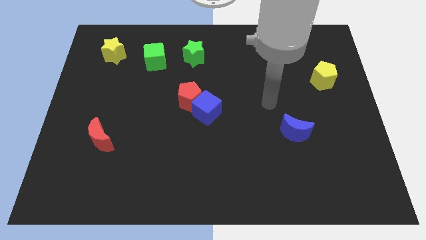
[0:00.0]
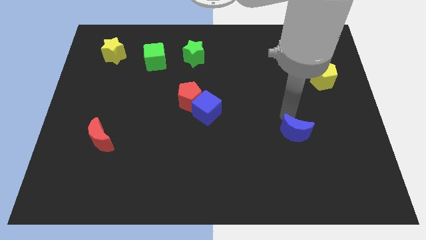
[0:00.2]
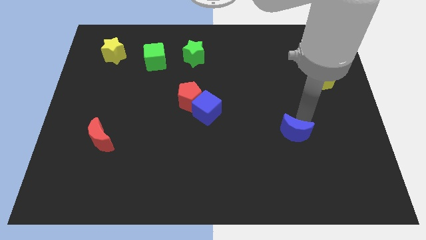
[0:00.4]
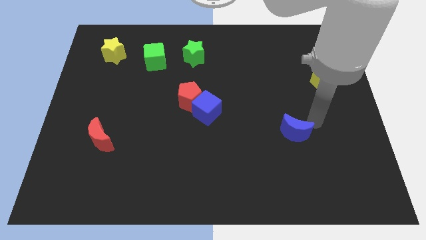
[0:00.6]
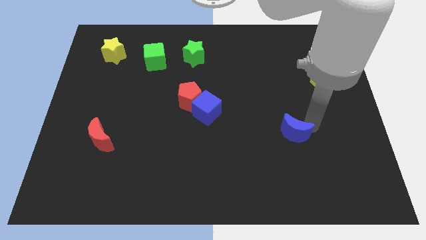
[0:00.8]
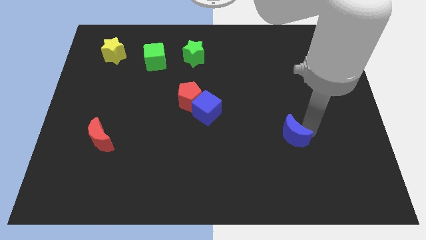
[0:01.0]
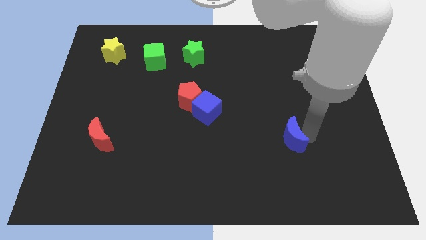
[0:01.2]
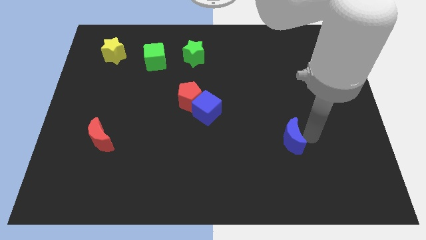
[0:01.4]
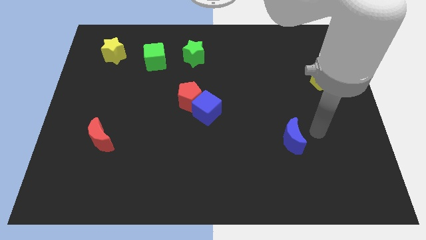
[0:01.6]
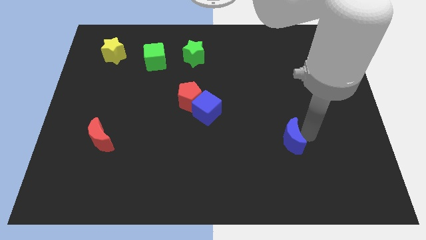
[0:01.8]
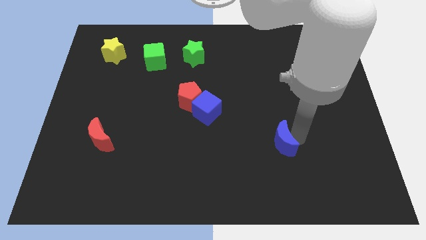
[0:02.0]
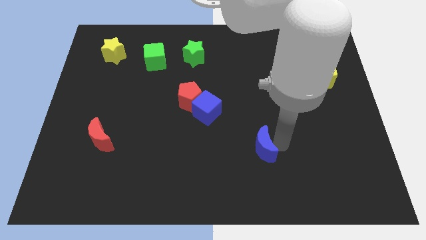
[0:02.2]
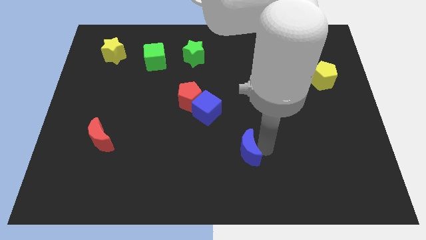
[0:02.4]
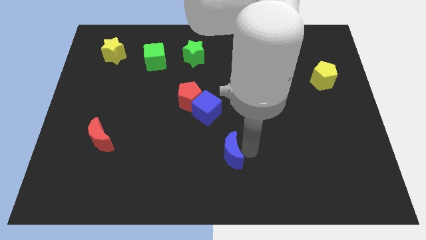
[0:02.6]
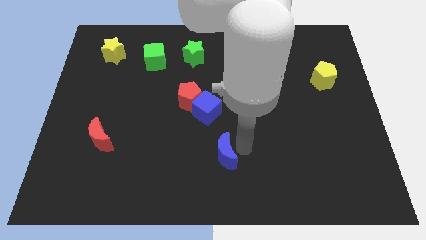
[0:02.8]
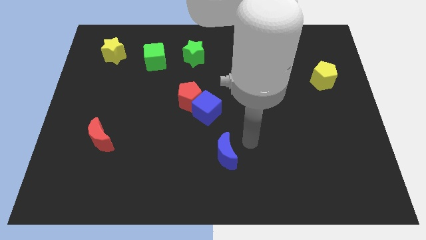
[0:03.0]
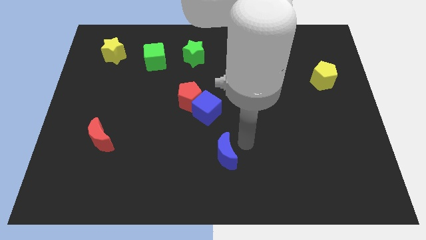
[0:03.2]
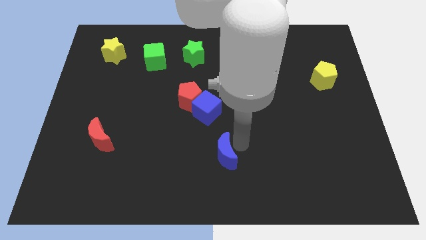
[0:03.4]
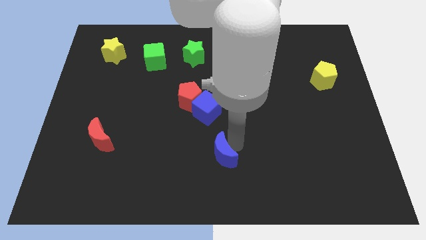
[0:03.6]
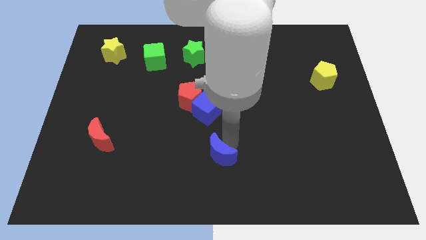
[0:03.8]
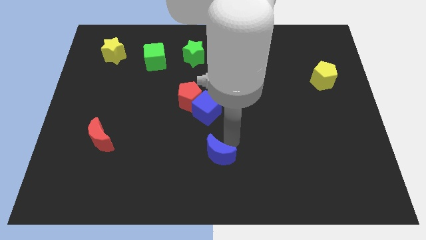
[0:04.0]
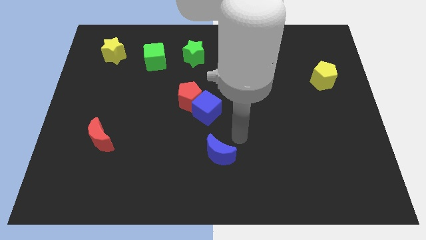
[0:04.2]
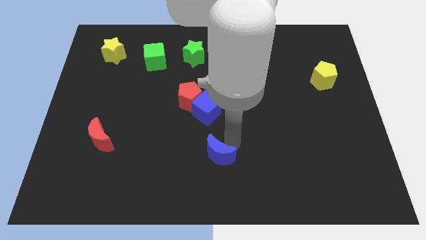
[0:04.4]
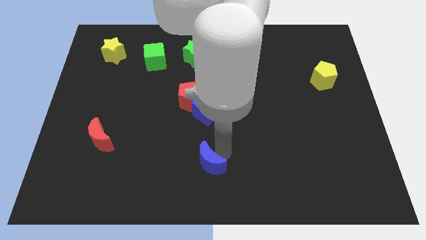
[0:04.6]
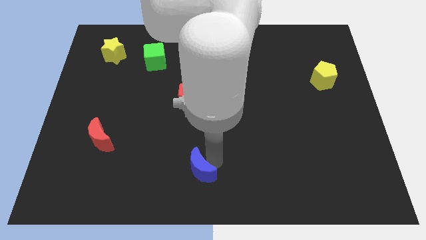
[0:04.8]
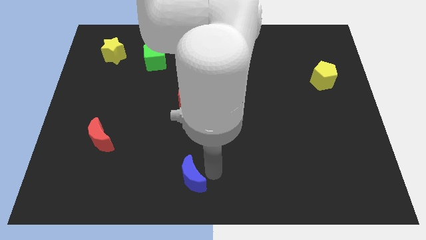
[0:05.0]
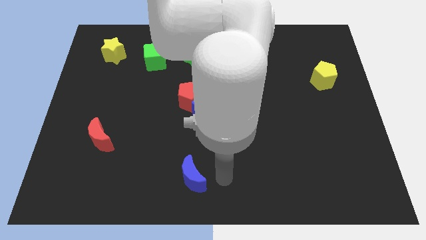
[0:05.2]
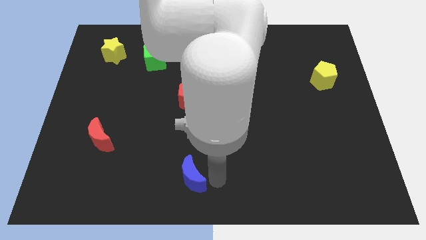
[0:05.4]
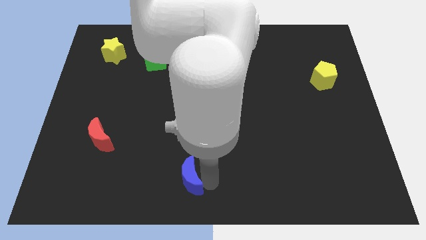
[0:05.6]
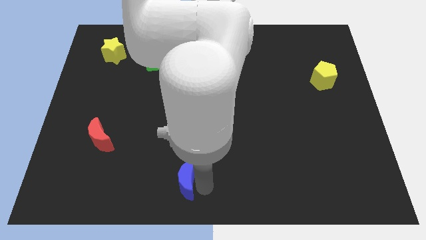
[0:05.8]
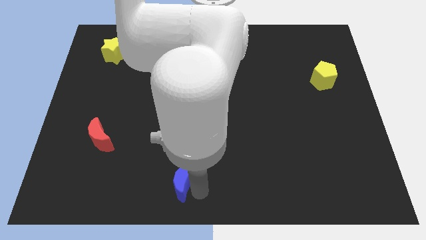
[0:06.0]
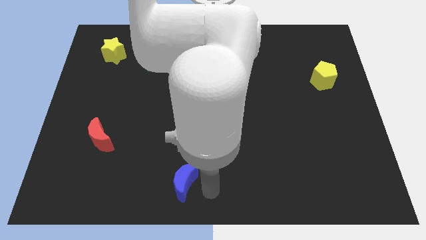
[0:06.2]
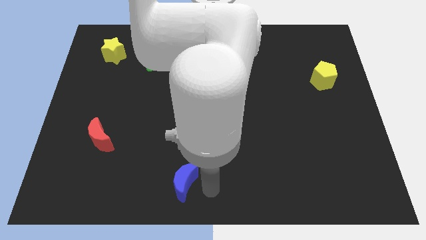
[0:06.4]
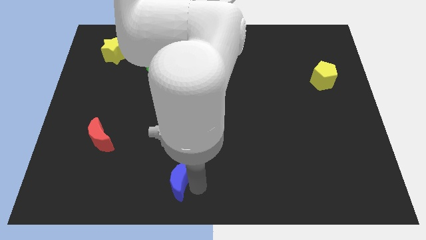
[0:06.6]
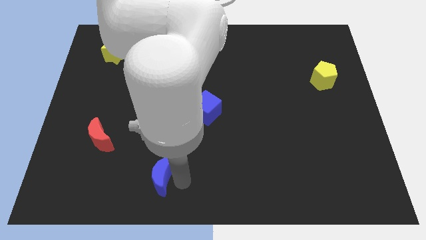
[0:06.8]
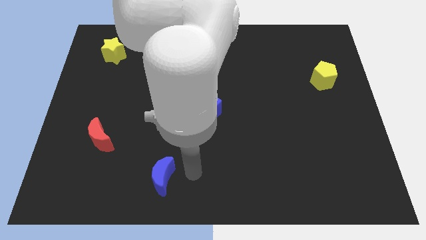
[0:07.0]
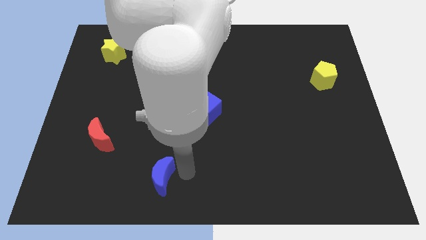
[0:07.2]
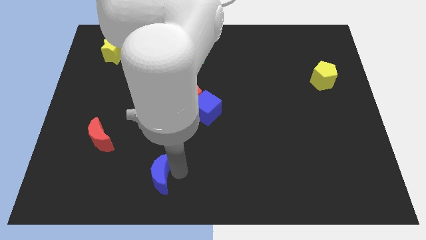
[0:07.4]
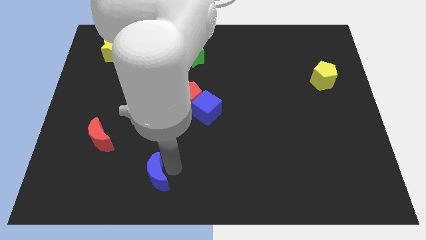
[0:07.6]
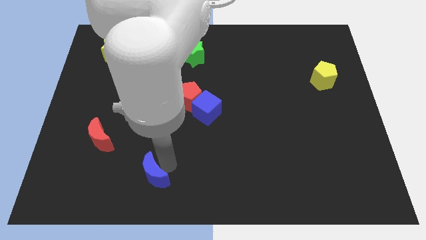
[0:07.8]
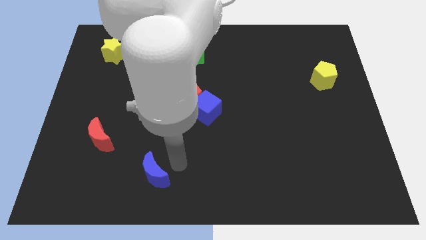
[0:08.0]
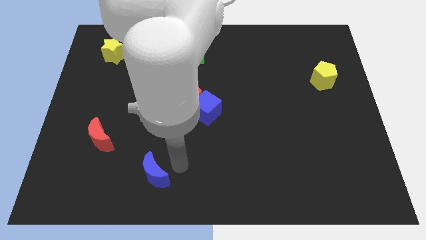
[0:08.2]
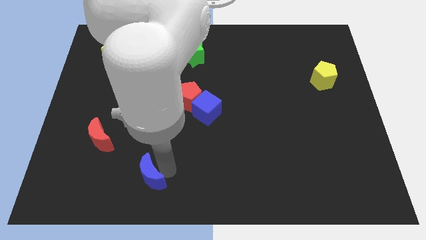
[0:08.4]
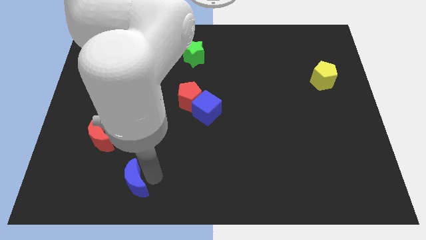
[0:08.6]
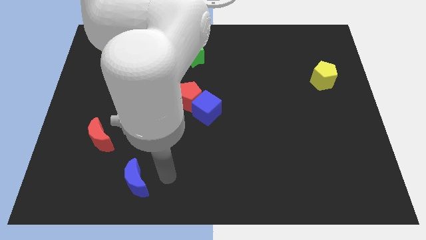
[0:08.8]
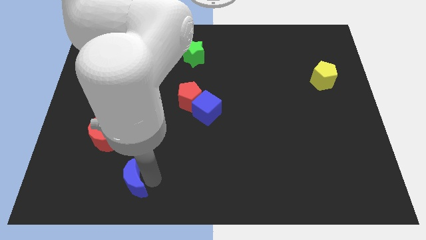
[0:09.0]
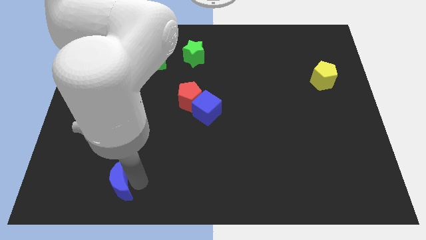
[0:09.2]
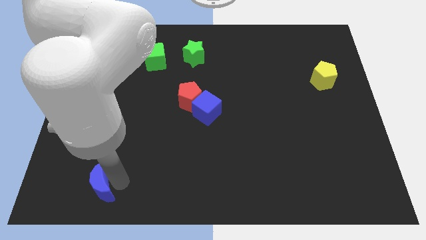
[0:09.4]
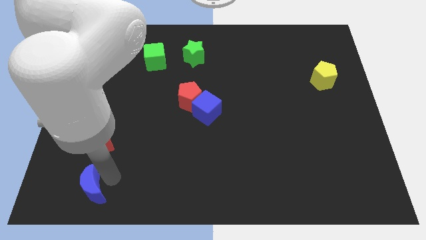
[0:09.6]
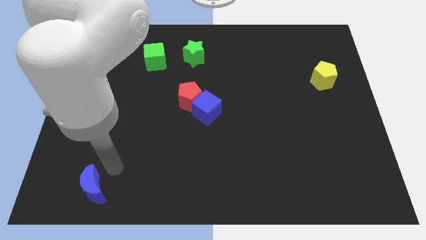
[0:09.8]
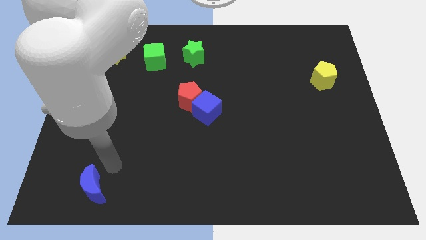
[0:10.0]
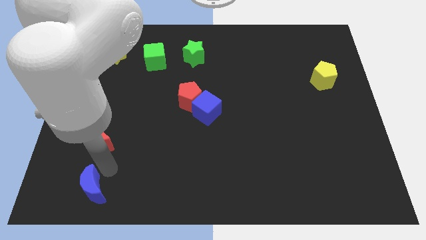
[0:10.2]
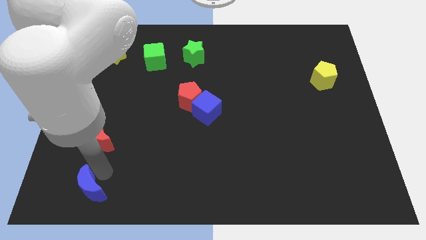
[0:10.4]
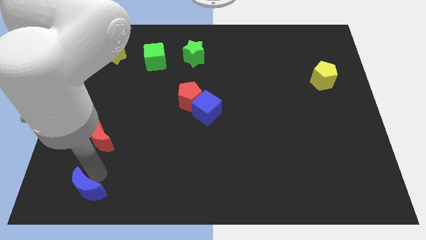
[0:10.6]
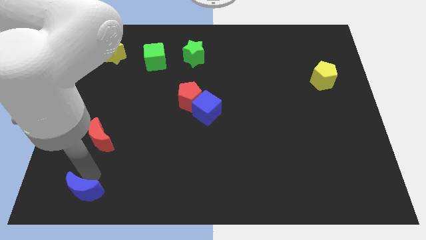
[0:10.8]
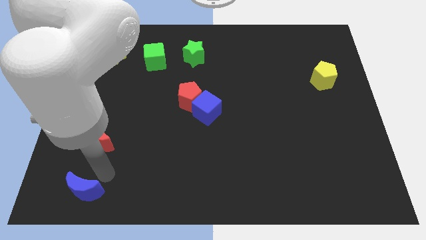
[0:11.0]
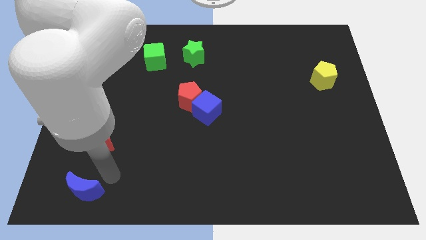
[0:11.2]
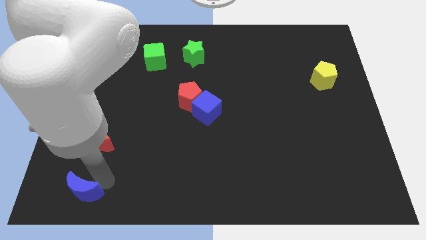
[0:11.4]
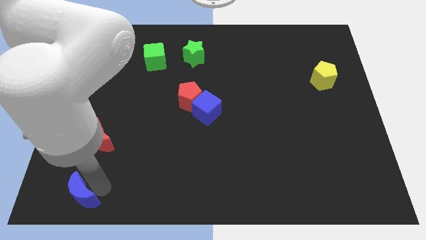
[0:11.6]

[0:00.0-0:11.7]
put the blue moon to the bottom left of the board

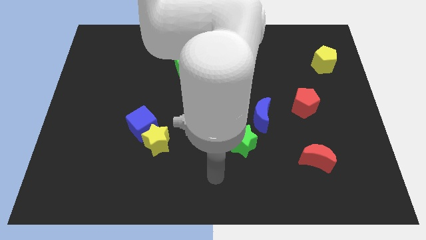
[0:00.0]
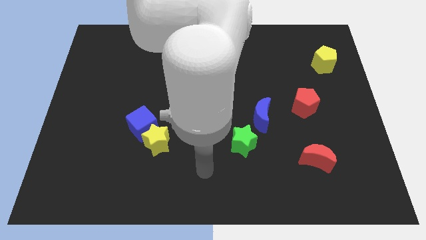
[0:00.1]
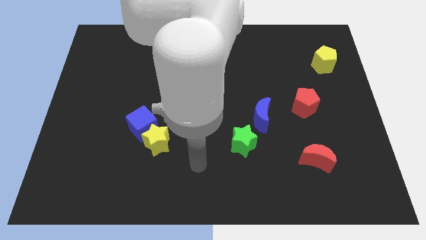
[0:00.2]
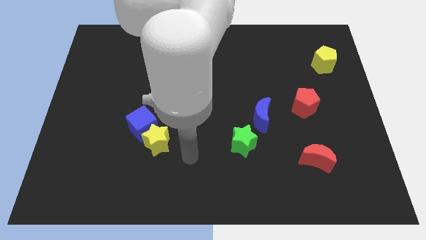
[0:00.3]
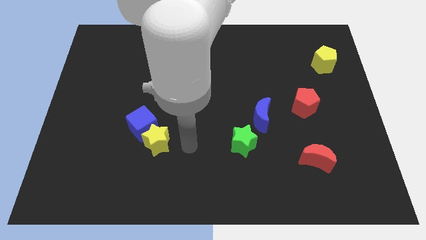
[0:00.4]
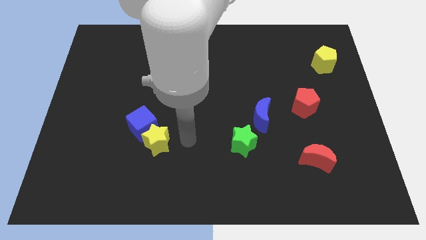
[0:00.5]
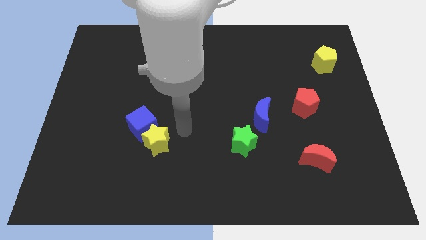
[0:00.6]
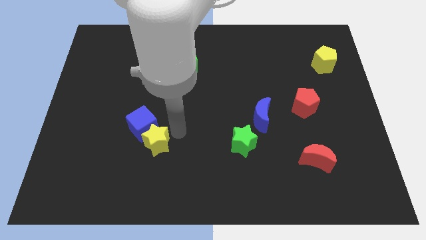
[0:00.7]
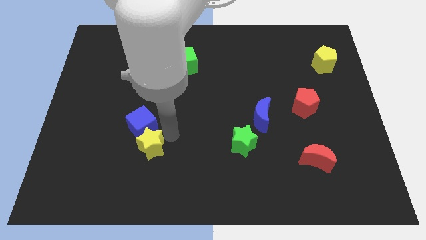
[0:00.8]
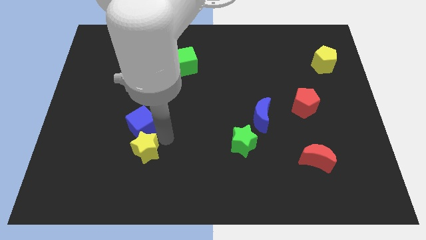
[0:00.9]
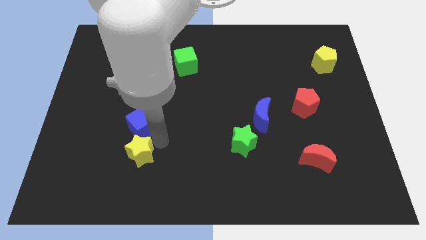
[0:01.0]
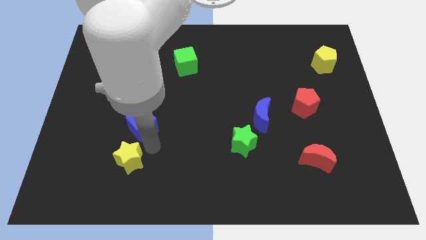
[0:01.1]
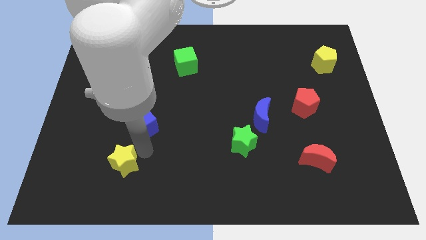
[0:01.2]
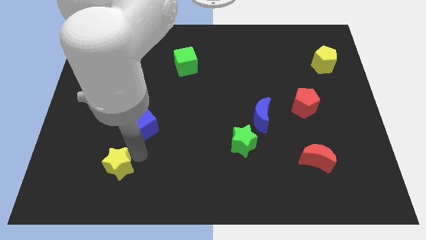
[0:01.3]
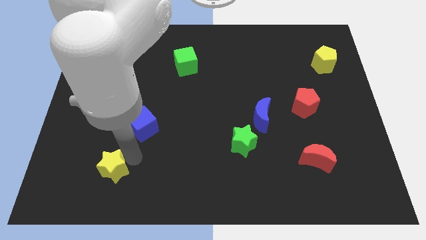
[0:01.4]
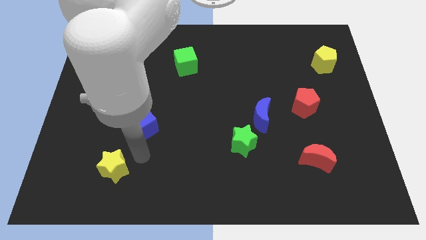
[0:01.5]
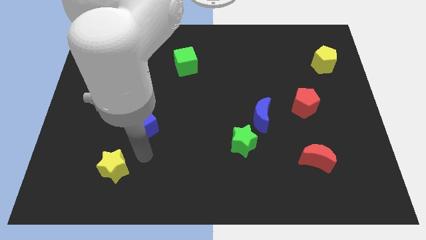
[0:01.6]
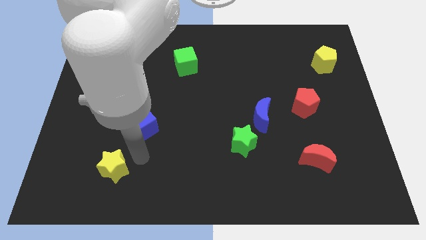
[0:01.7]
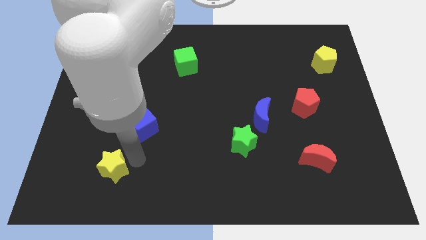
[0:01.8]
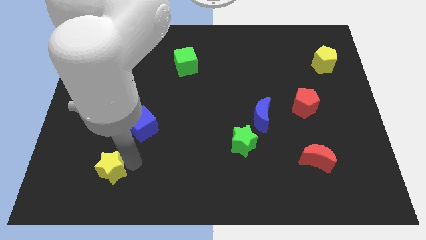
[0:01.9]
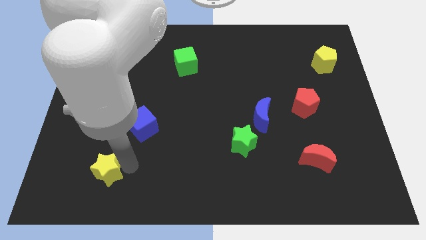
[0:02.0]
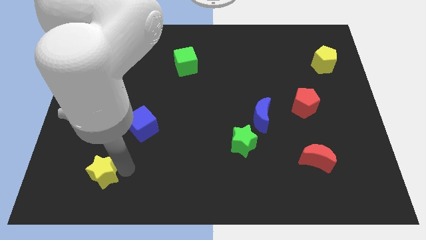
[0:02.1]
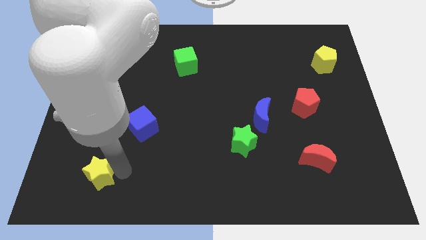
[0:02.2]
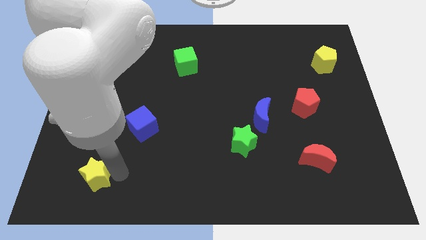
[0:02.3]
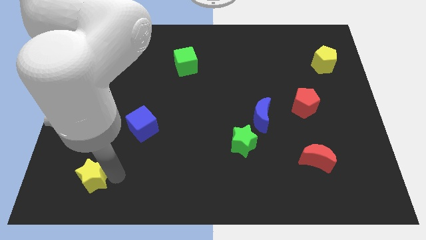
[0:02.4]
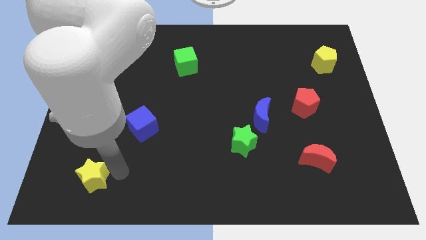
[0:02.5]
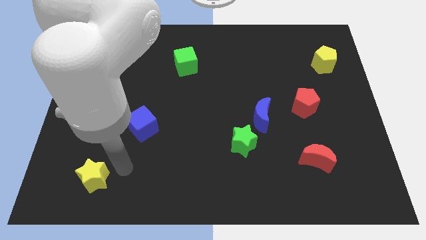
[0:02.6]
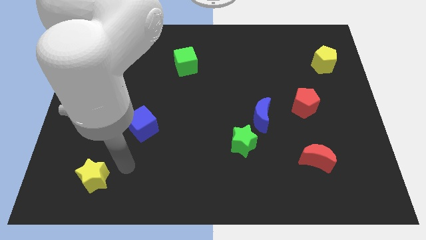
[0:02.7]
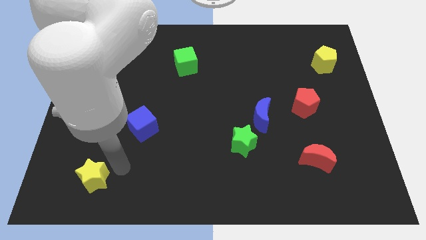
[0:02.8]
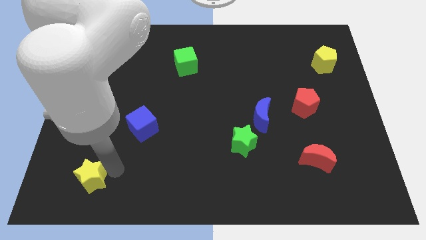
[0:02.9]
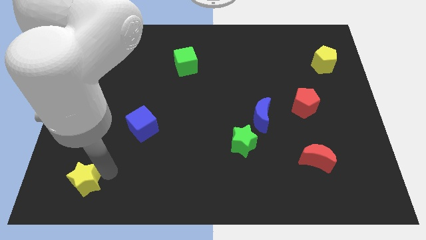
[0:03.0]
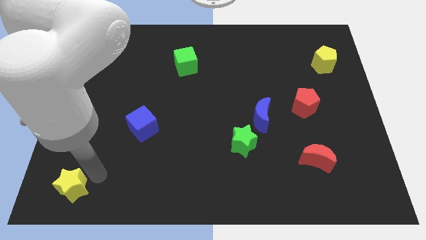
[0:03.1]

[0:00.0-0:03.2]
slide the yellow star to the bottom left
